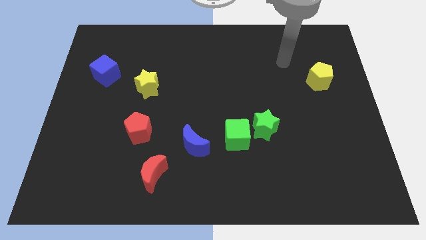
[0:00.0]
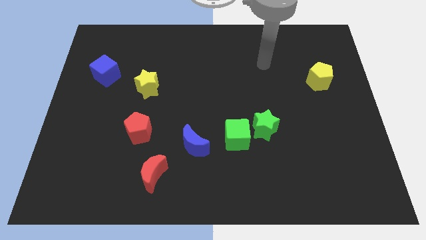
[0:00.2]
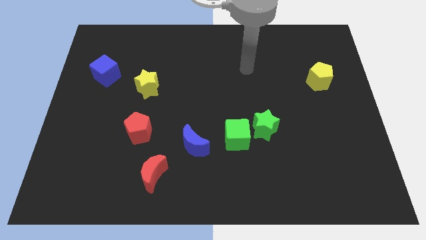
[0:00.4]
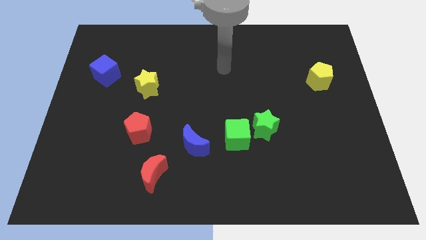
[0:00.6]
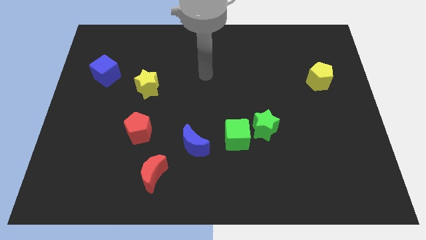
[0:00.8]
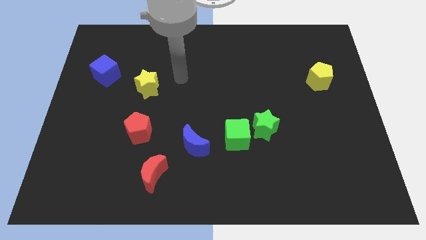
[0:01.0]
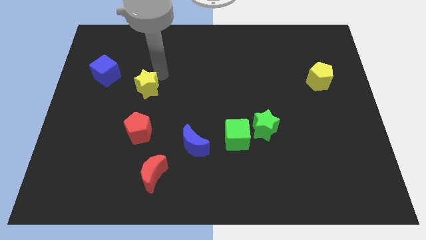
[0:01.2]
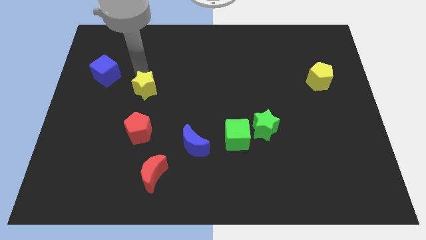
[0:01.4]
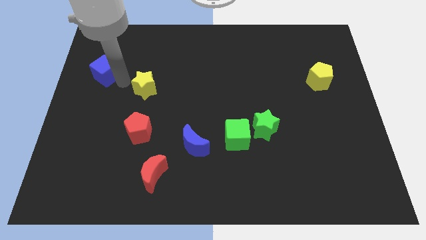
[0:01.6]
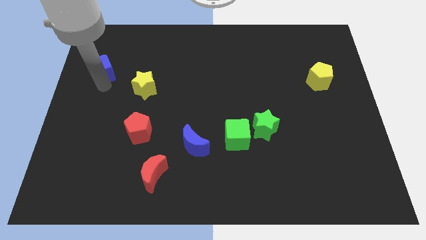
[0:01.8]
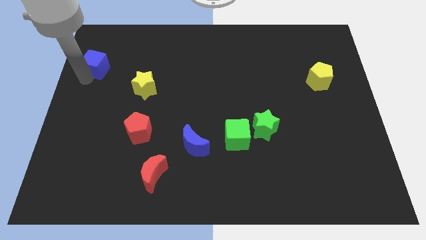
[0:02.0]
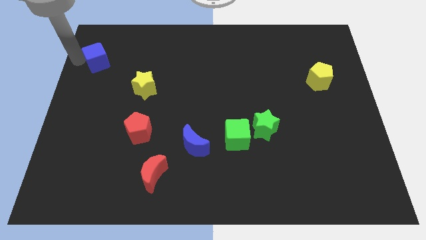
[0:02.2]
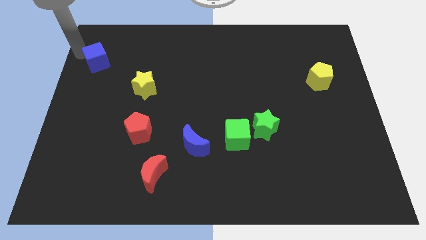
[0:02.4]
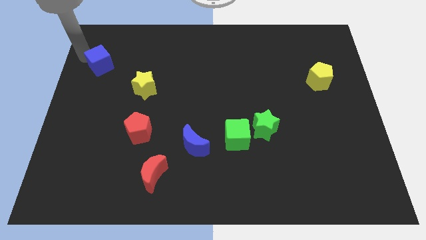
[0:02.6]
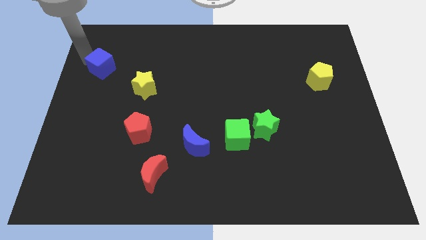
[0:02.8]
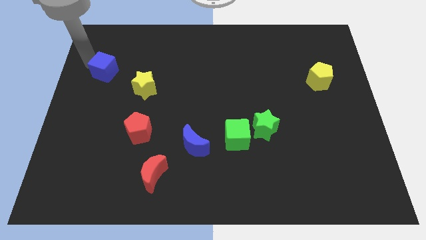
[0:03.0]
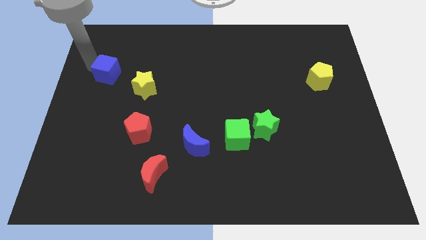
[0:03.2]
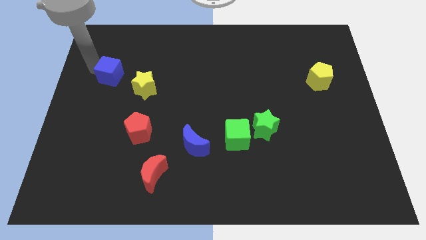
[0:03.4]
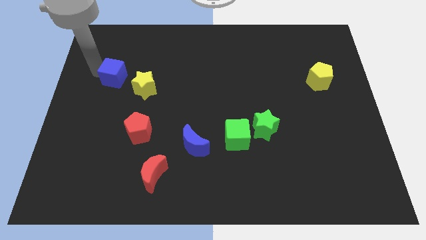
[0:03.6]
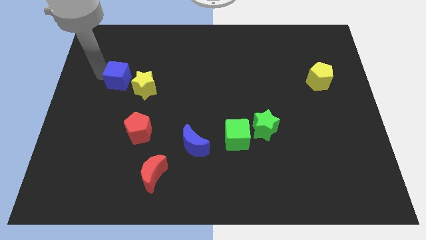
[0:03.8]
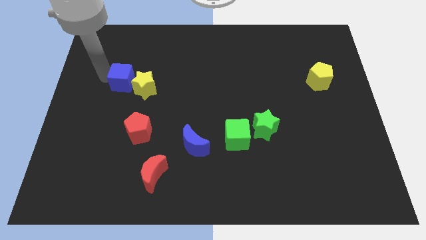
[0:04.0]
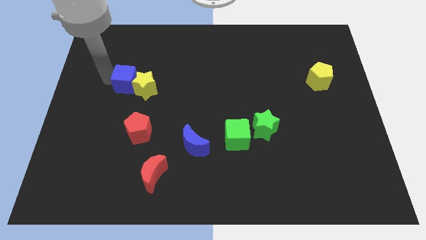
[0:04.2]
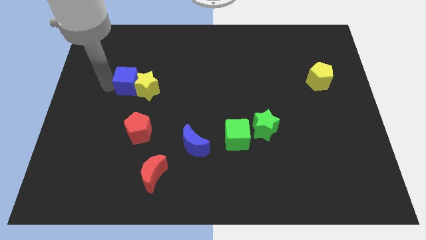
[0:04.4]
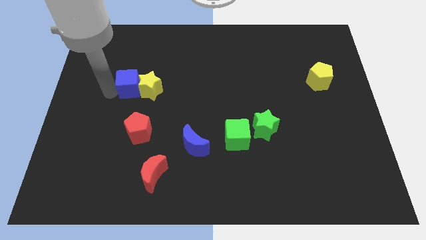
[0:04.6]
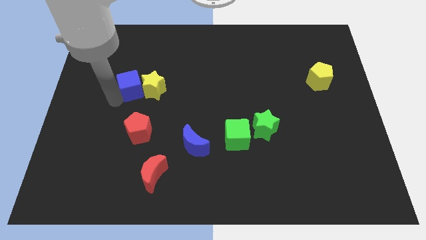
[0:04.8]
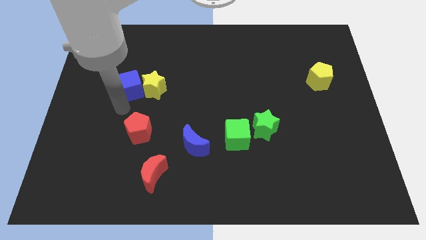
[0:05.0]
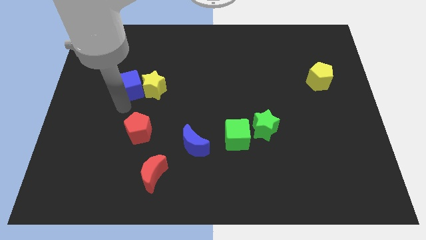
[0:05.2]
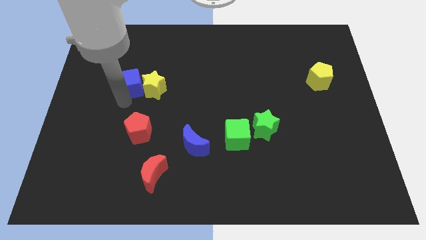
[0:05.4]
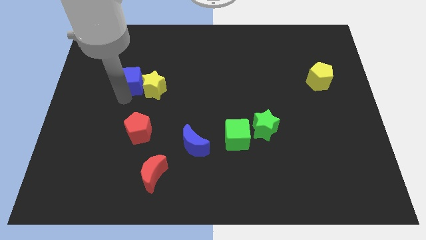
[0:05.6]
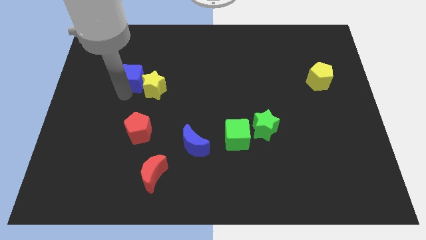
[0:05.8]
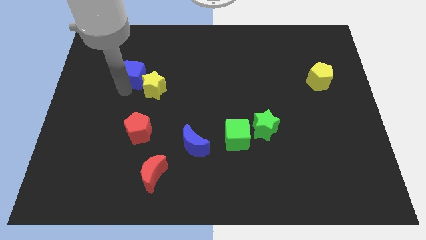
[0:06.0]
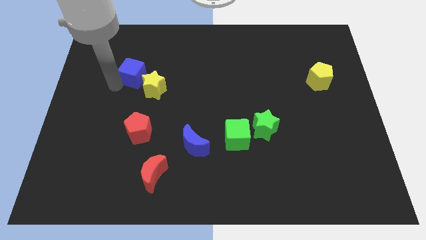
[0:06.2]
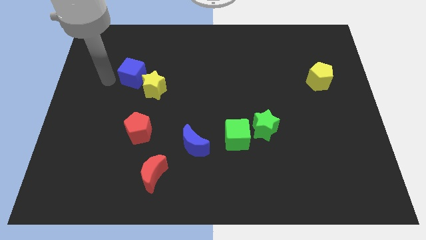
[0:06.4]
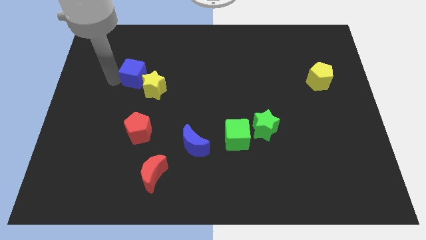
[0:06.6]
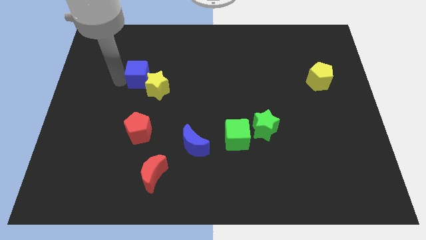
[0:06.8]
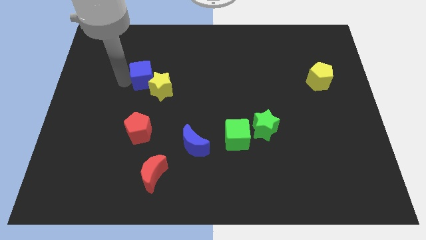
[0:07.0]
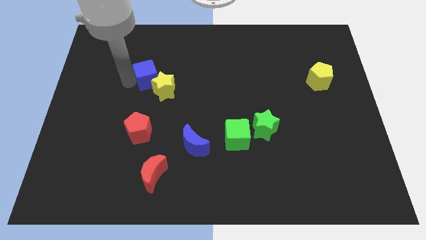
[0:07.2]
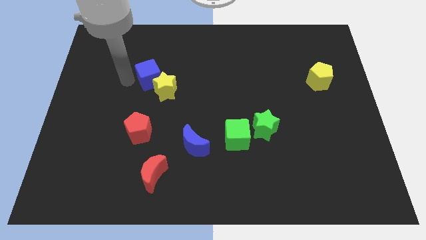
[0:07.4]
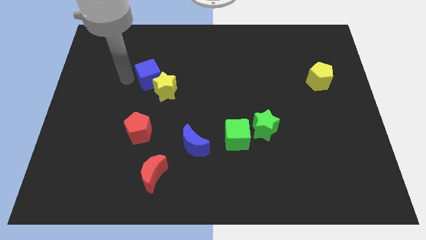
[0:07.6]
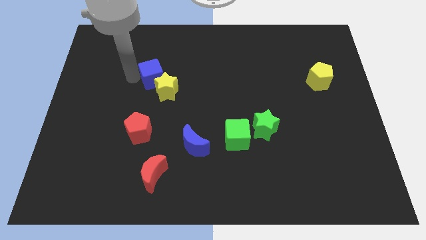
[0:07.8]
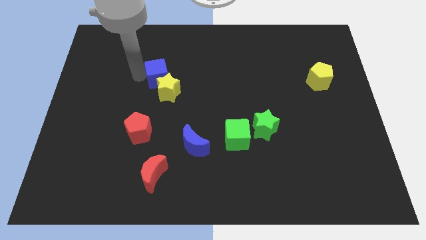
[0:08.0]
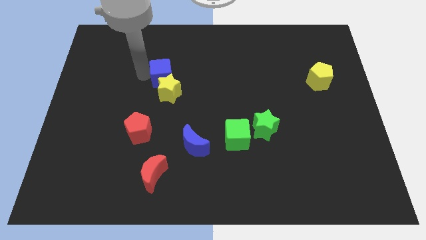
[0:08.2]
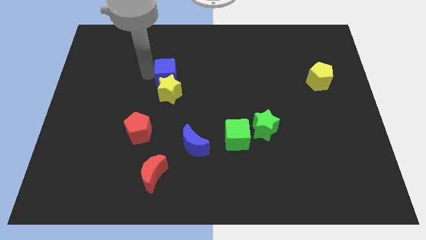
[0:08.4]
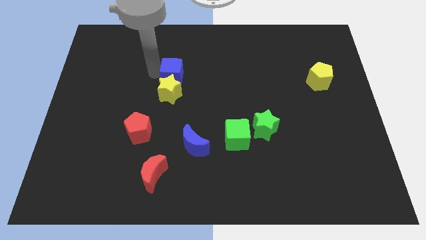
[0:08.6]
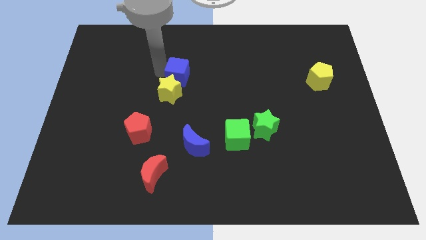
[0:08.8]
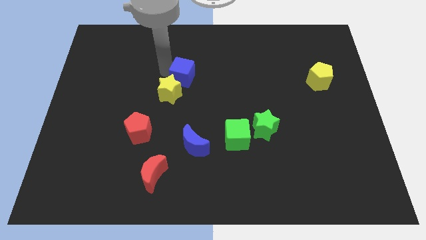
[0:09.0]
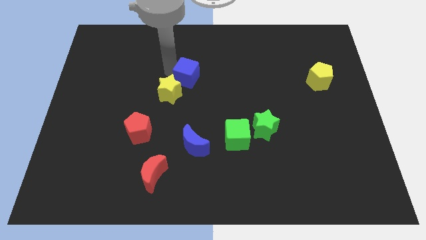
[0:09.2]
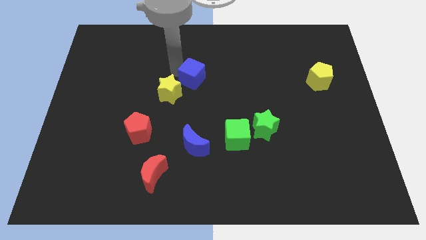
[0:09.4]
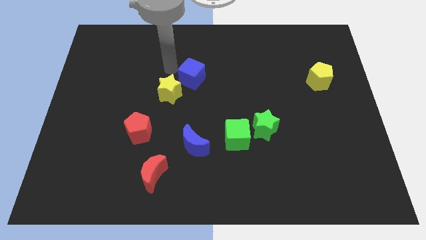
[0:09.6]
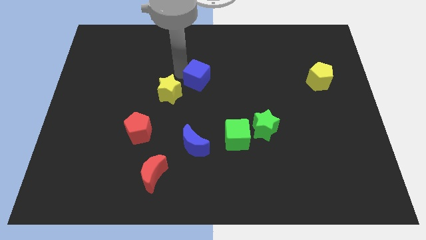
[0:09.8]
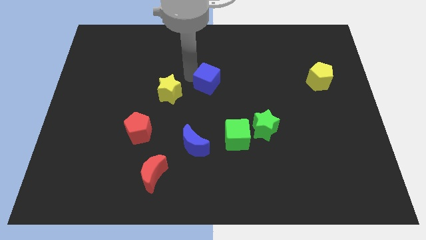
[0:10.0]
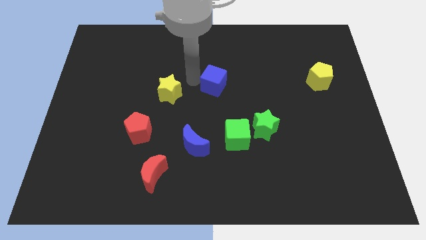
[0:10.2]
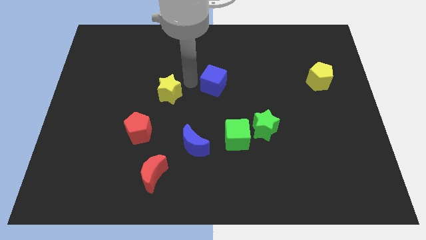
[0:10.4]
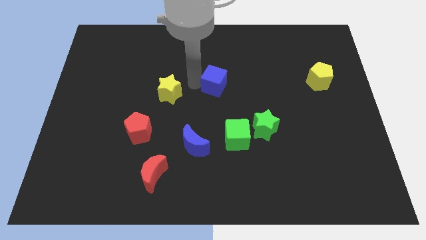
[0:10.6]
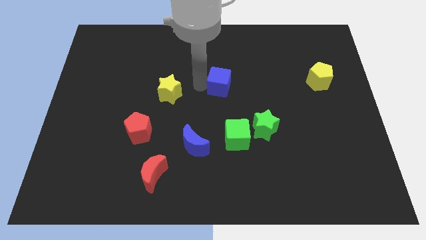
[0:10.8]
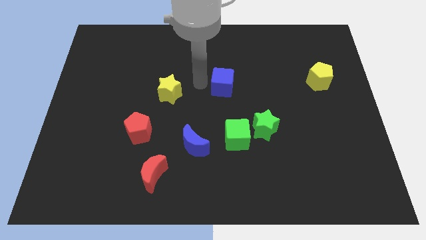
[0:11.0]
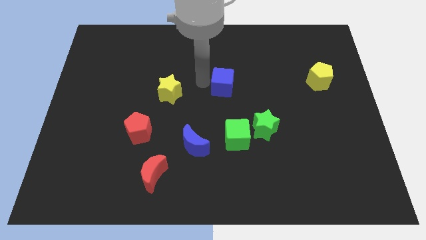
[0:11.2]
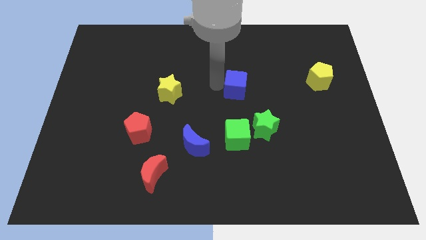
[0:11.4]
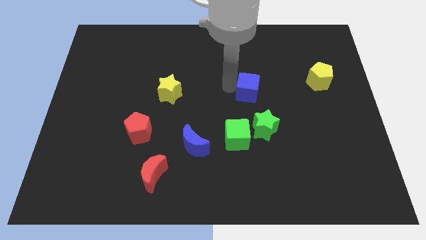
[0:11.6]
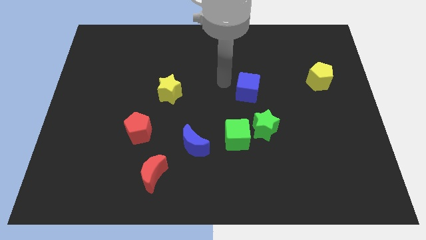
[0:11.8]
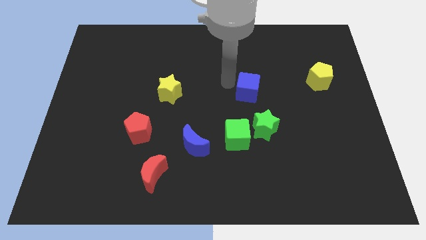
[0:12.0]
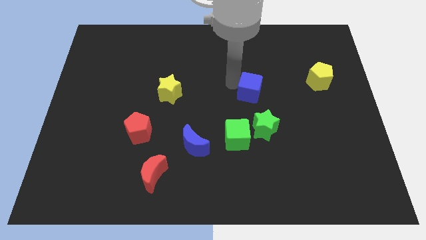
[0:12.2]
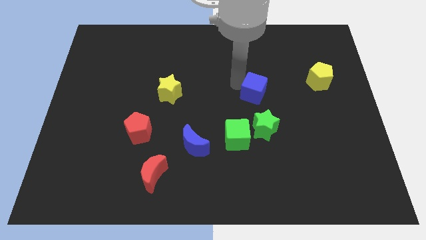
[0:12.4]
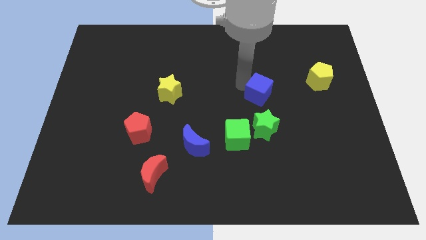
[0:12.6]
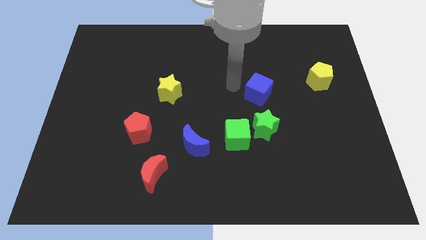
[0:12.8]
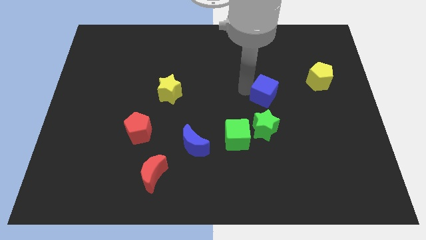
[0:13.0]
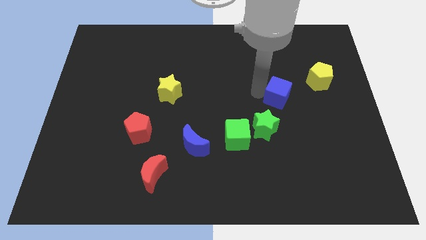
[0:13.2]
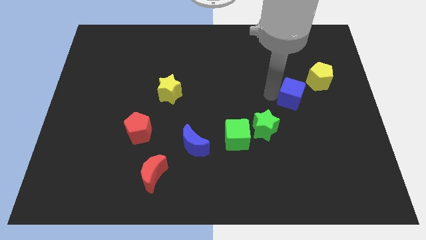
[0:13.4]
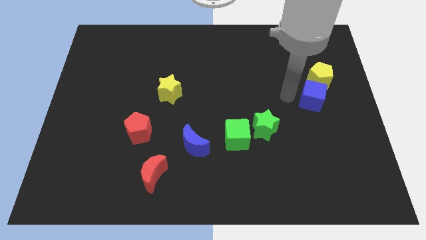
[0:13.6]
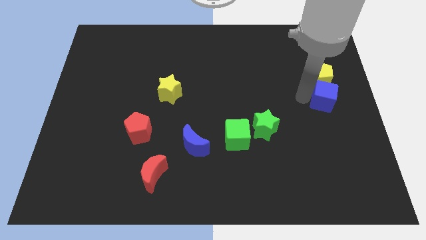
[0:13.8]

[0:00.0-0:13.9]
put the blue cube to the right side
